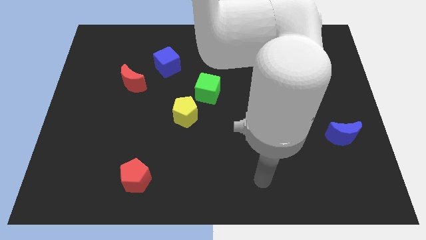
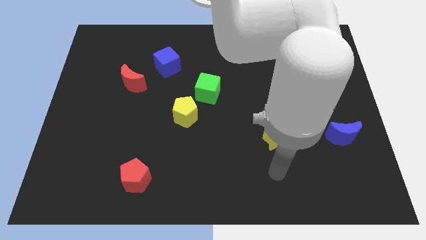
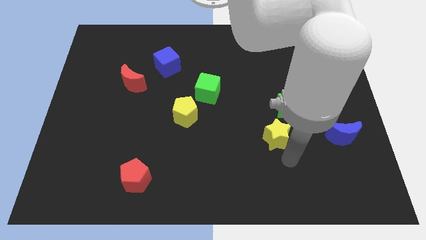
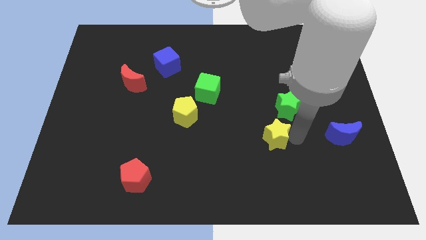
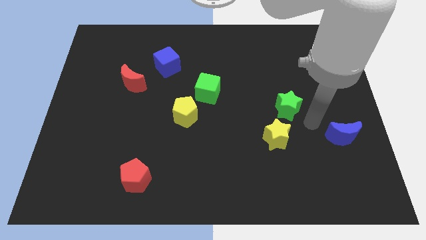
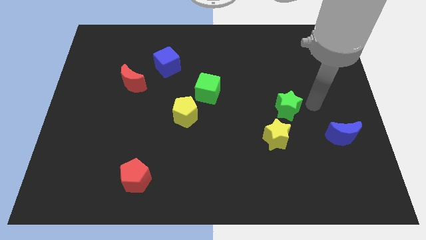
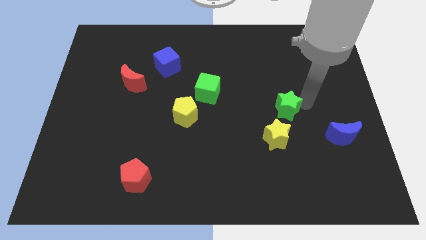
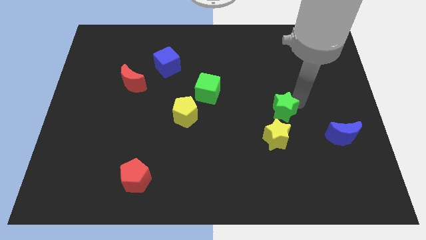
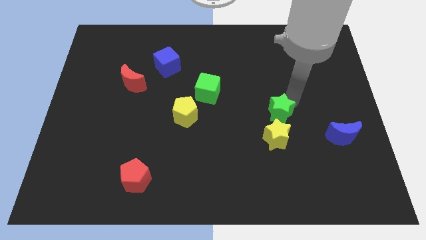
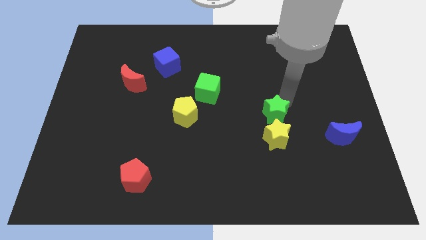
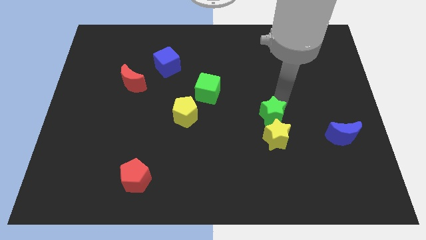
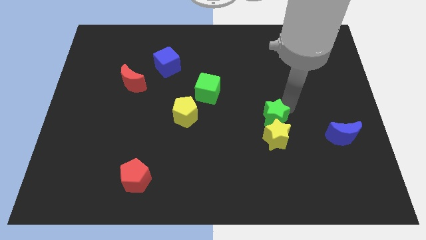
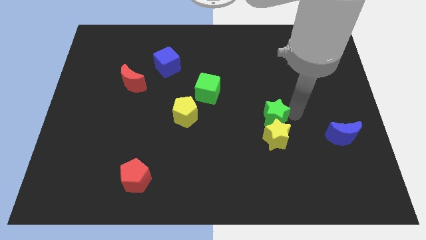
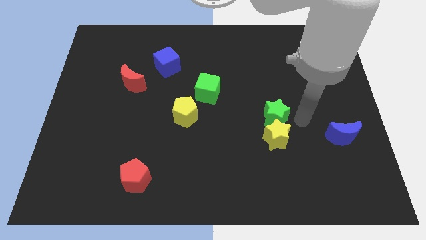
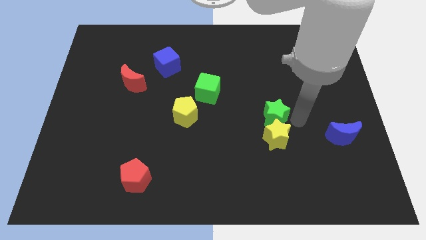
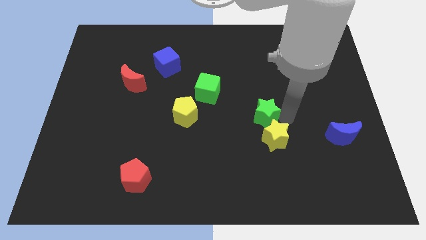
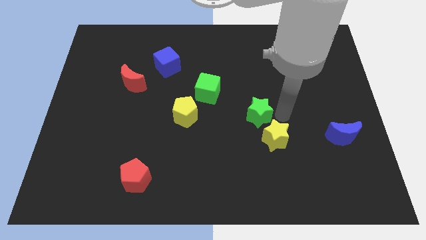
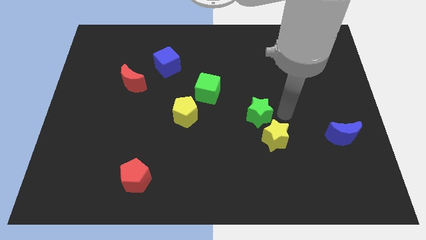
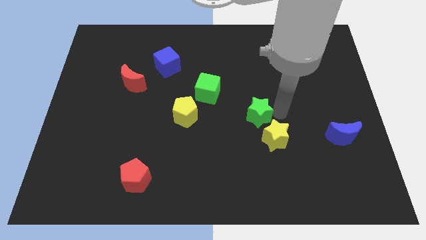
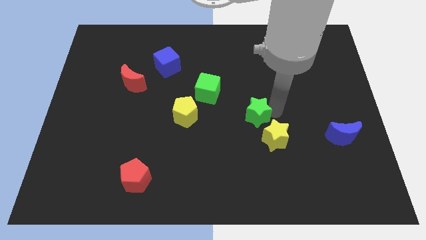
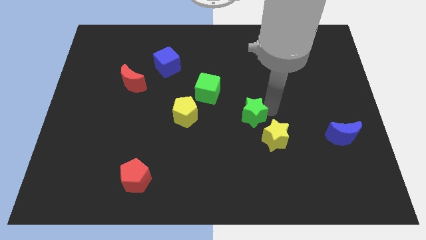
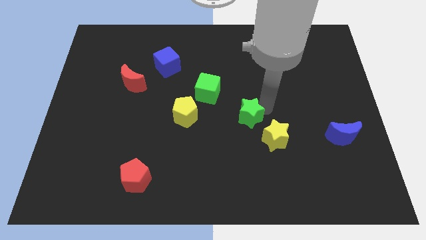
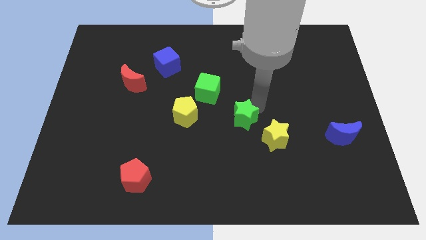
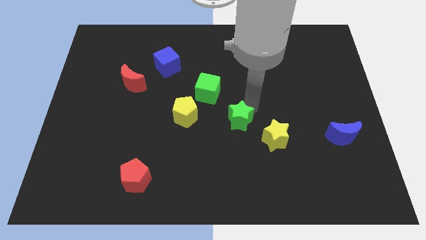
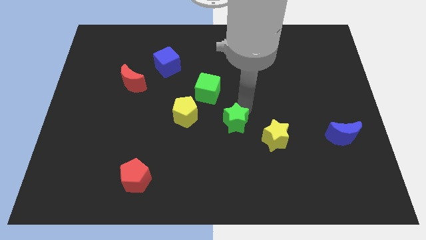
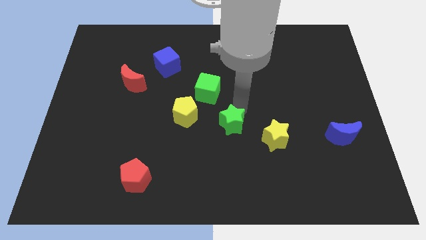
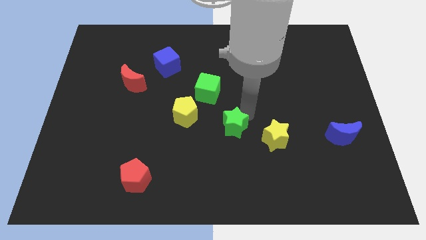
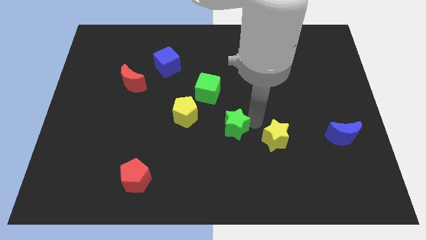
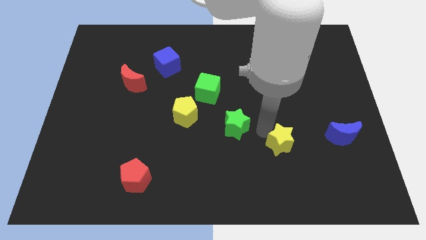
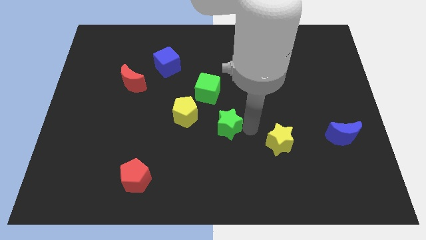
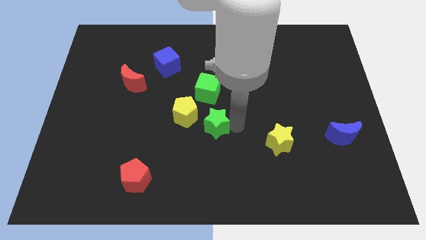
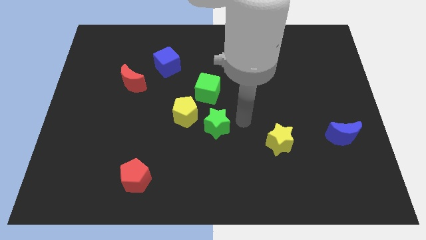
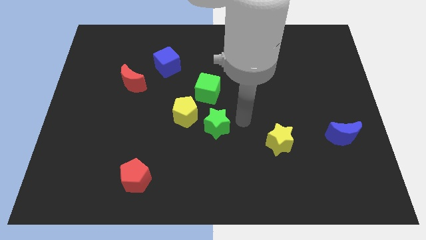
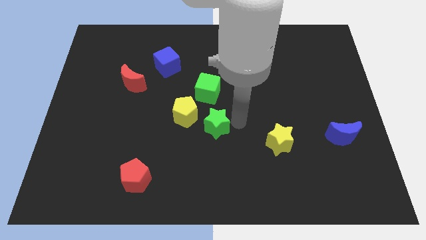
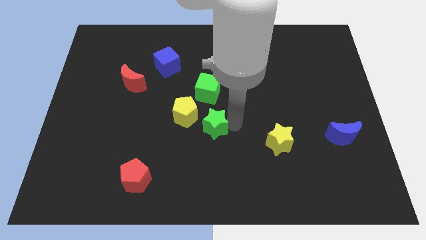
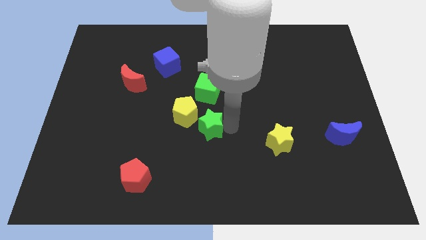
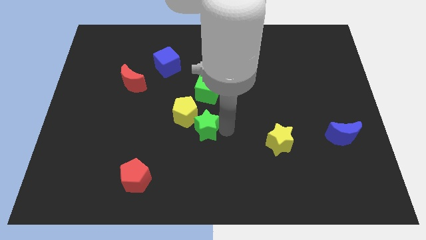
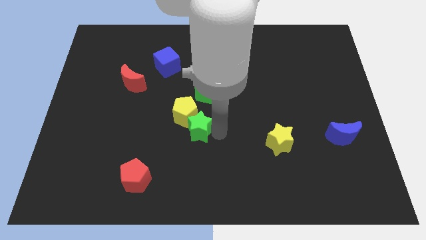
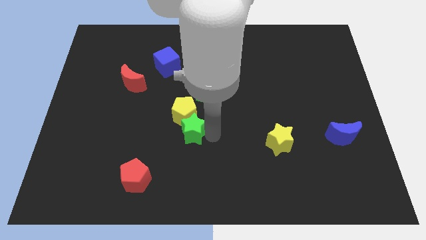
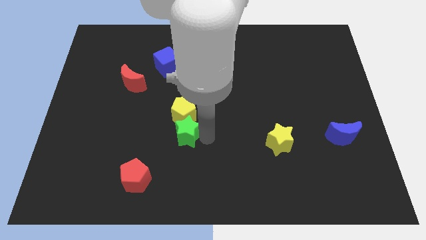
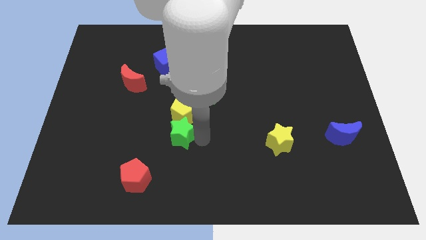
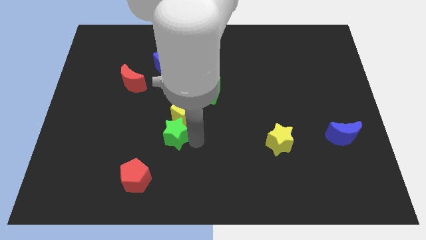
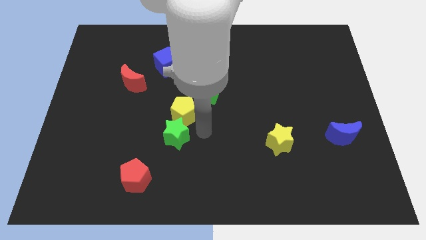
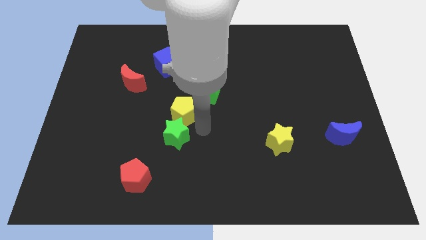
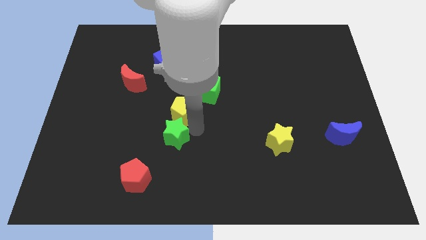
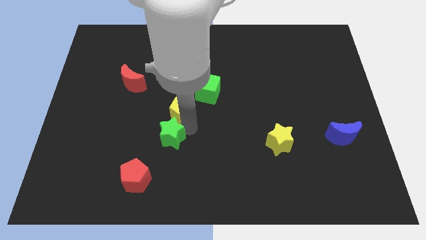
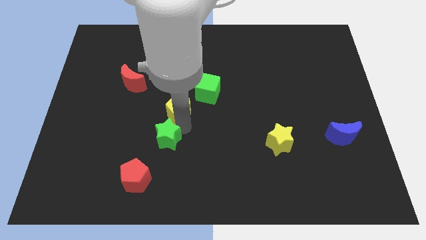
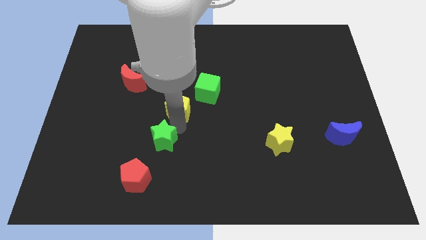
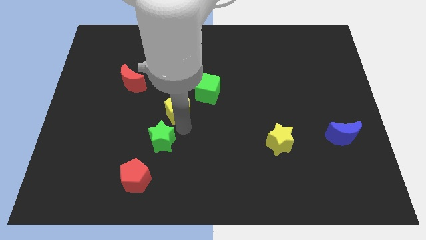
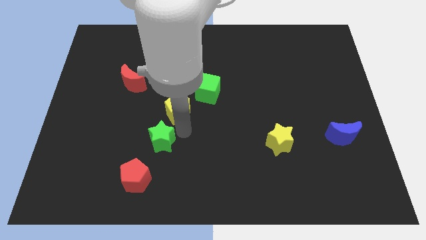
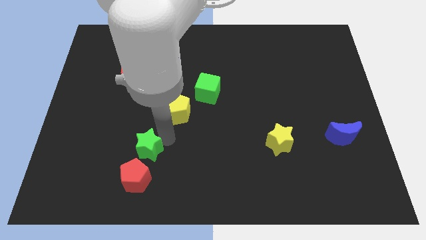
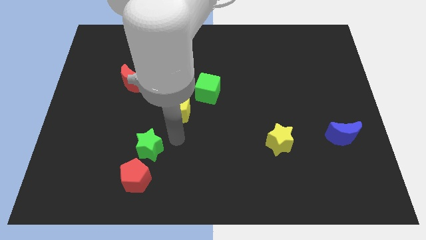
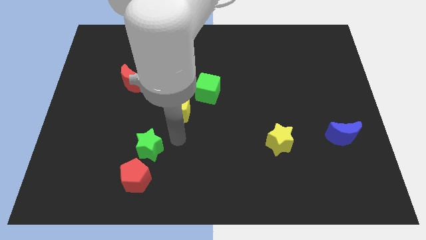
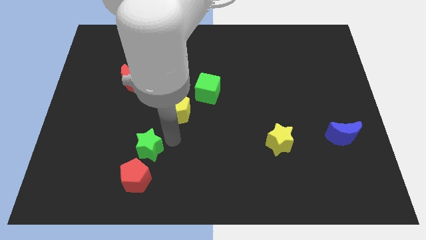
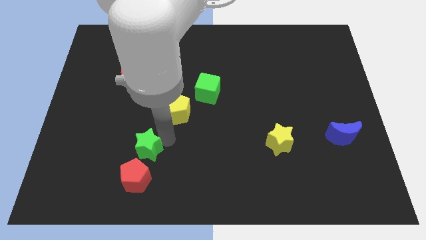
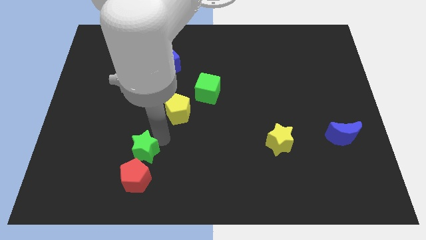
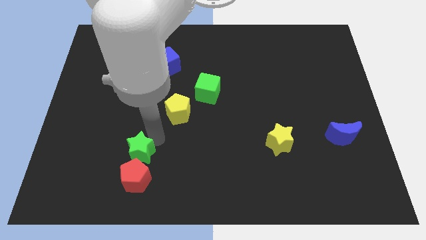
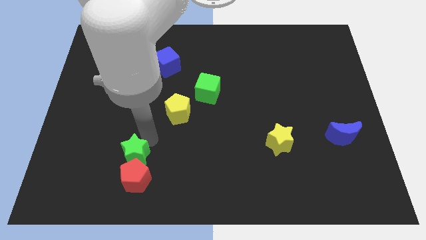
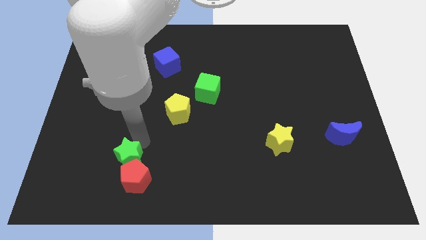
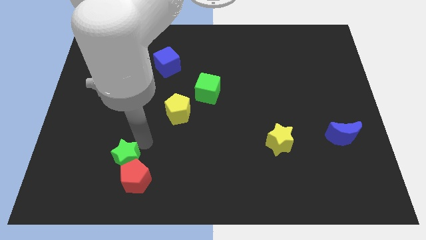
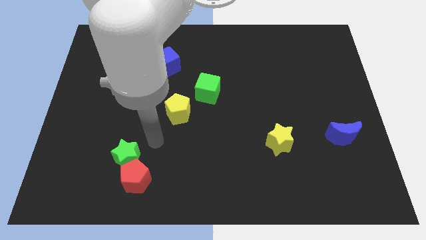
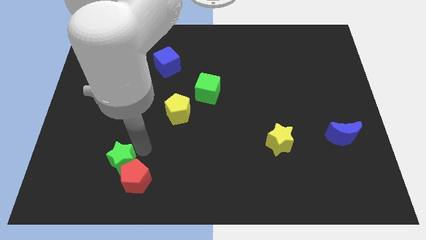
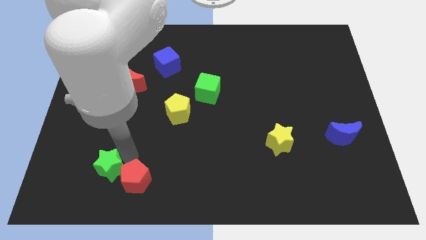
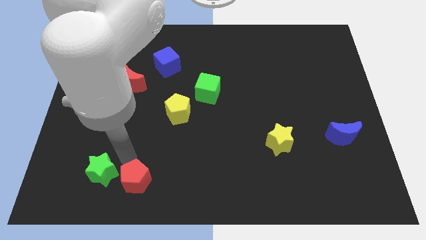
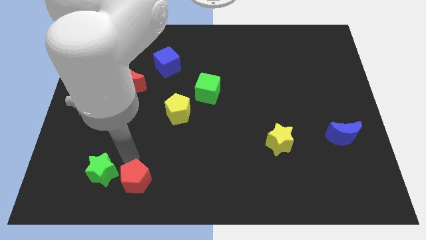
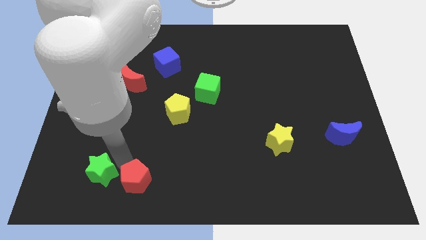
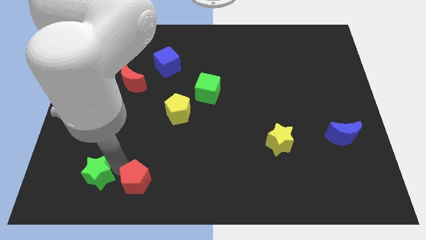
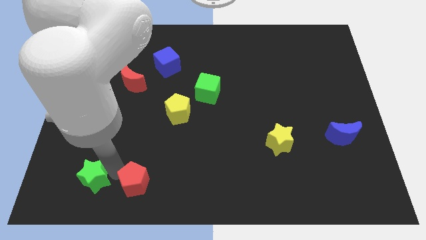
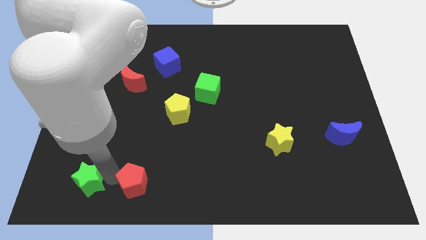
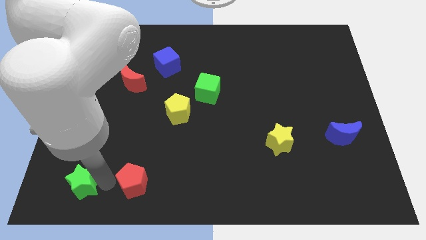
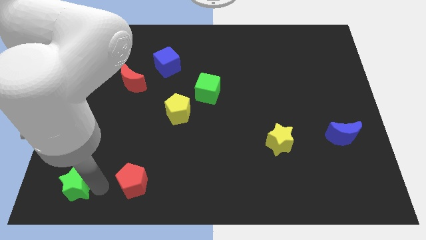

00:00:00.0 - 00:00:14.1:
push the green star to the bottom left of the board

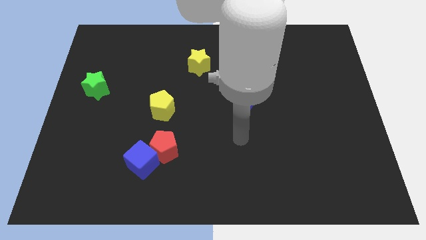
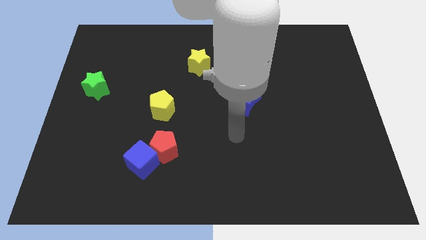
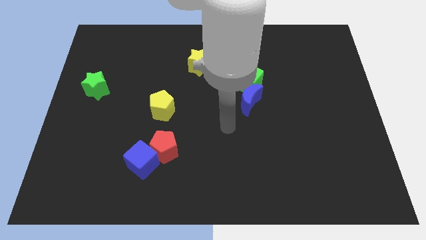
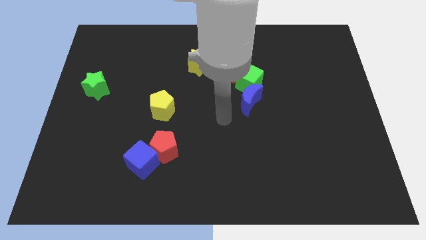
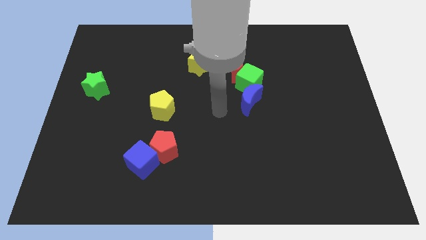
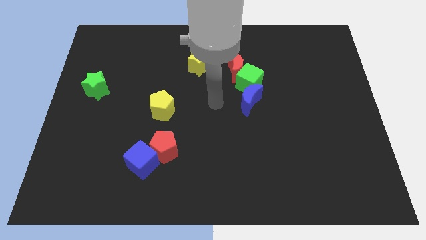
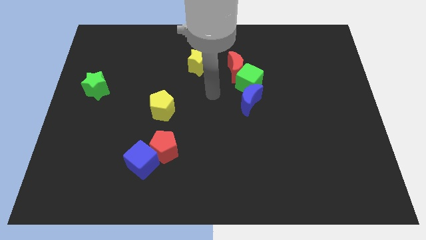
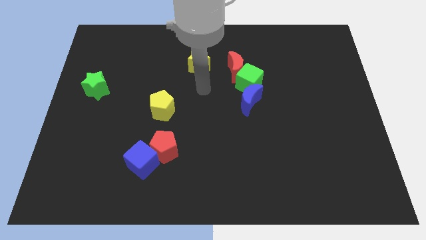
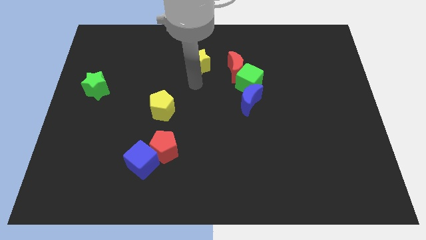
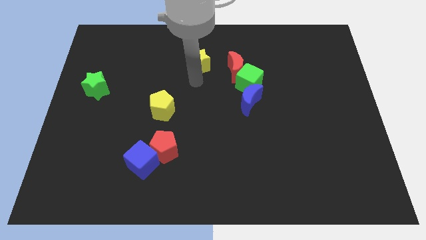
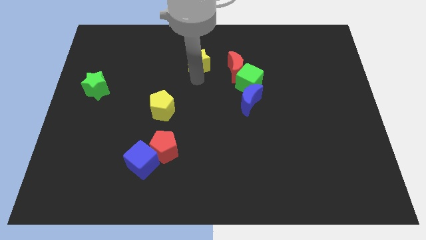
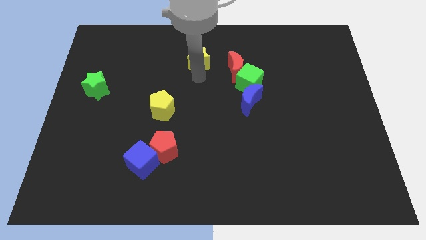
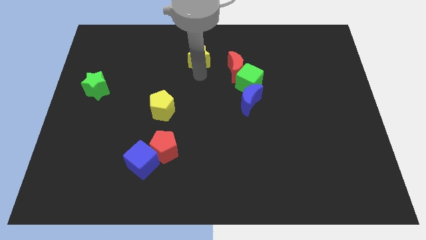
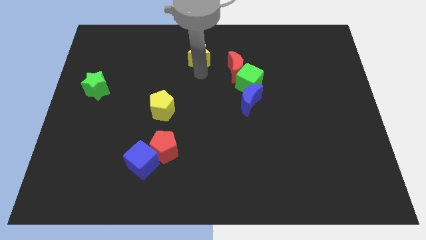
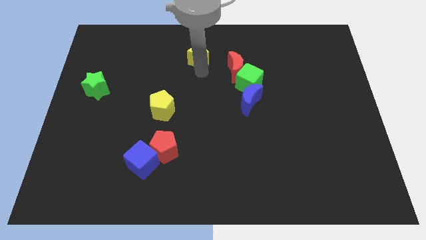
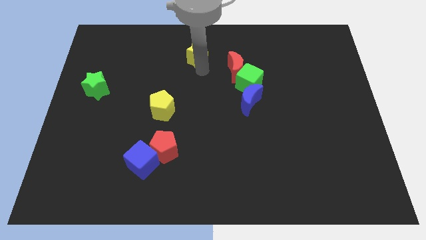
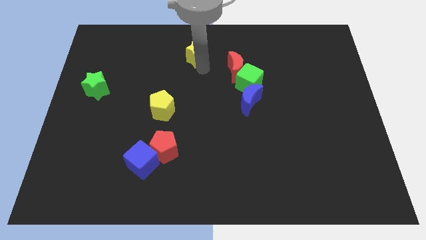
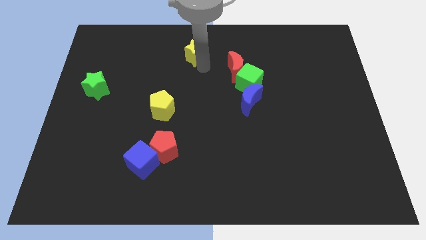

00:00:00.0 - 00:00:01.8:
slide the yellow star to the top
